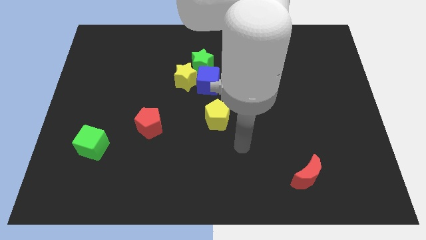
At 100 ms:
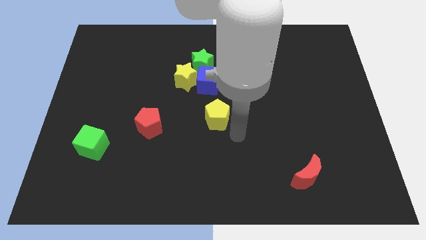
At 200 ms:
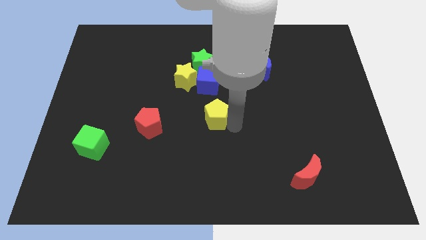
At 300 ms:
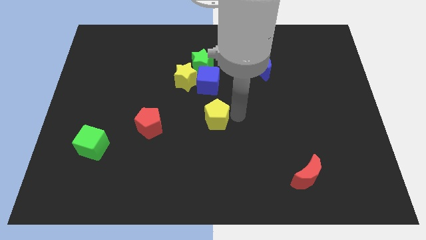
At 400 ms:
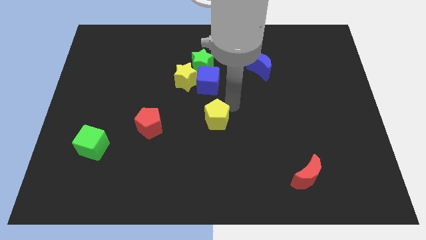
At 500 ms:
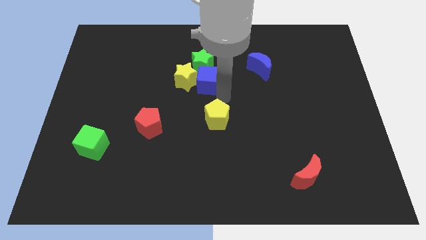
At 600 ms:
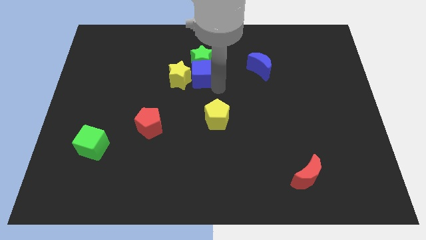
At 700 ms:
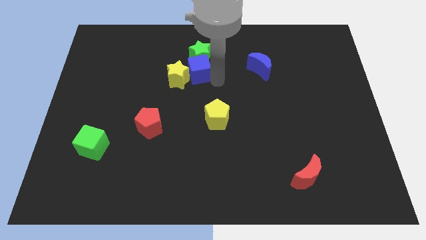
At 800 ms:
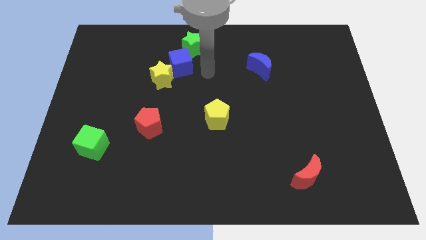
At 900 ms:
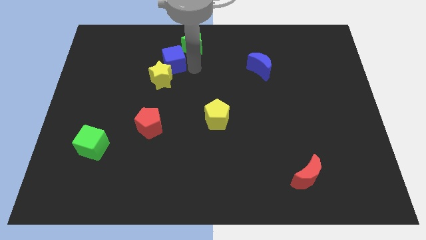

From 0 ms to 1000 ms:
separate the yellow star from the blue cube and green star

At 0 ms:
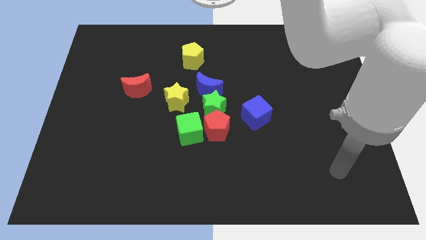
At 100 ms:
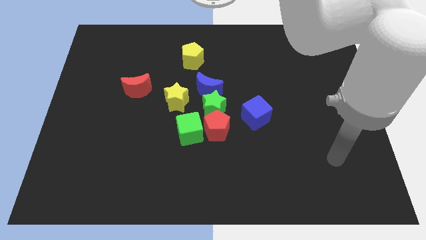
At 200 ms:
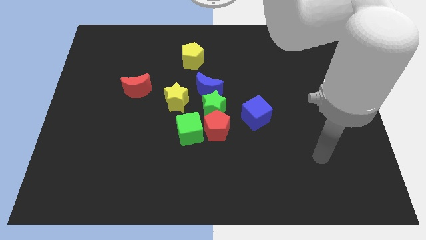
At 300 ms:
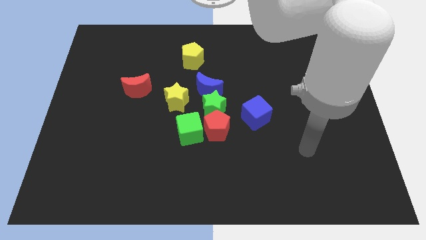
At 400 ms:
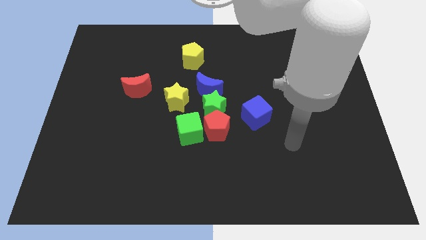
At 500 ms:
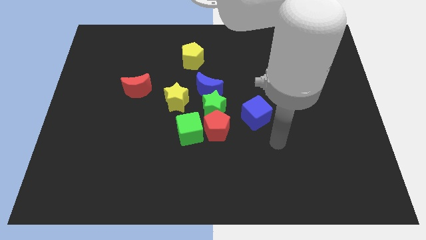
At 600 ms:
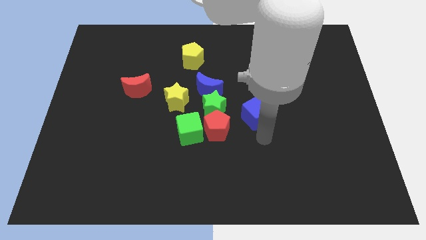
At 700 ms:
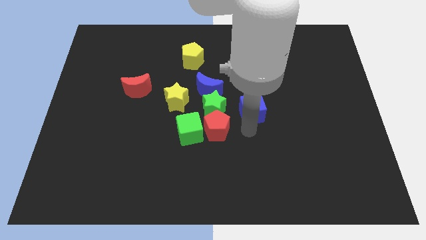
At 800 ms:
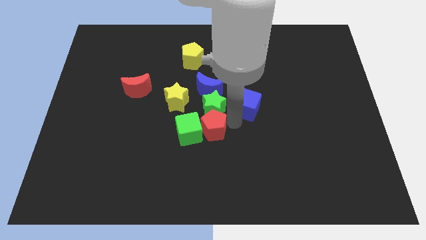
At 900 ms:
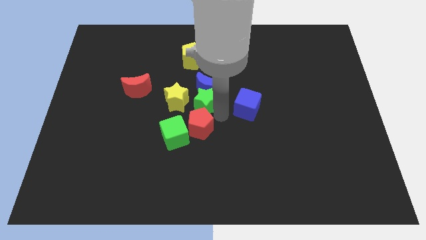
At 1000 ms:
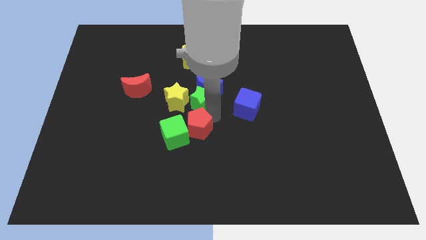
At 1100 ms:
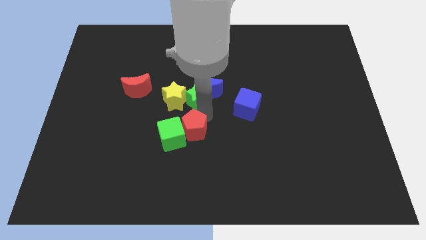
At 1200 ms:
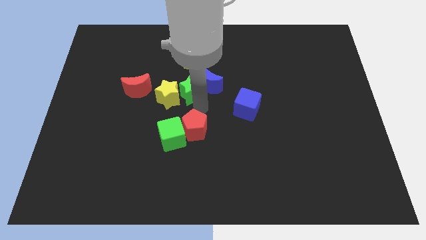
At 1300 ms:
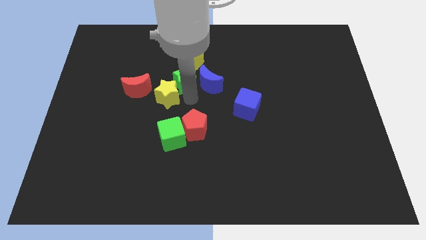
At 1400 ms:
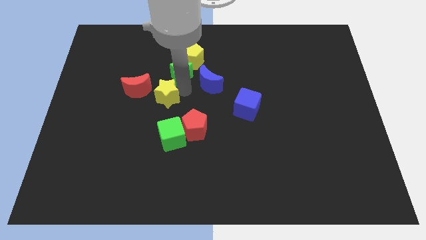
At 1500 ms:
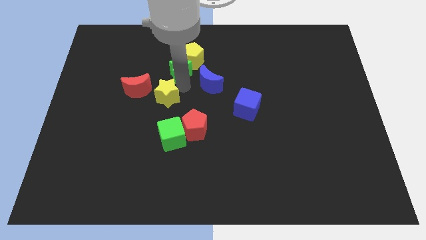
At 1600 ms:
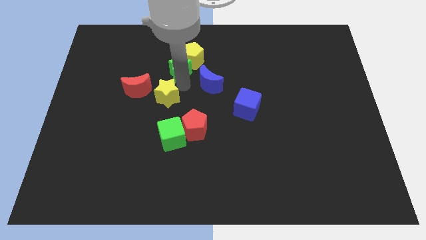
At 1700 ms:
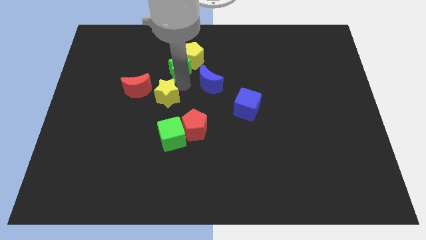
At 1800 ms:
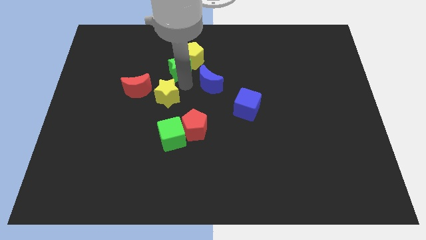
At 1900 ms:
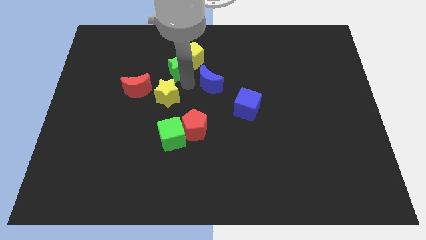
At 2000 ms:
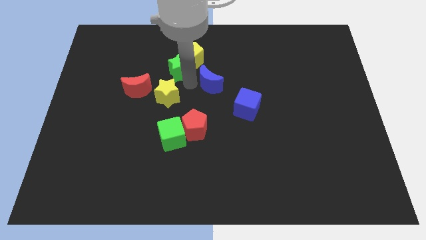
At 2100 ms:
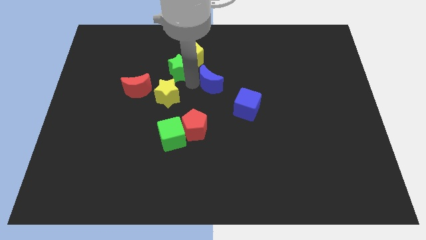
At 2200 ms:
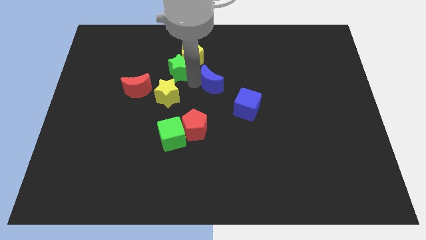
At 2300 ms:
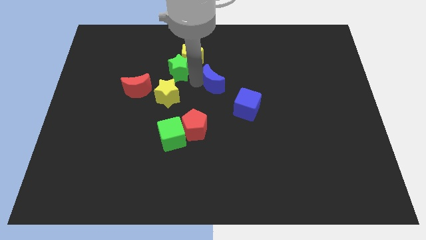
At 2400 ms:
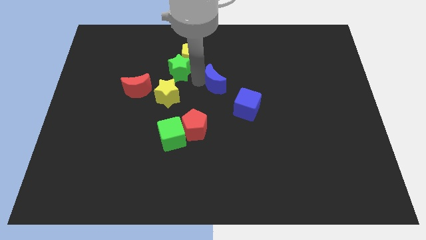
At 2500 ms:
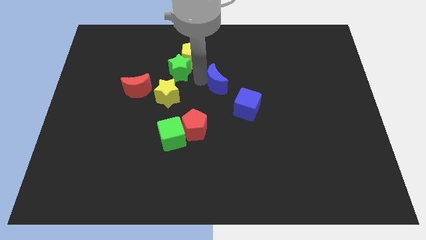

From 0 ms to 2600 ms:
pull the blue moon apart from the green star and yellow star

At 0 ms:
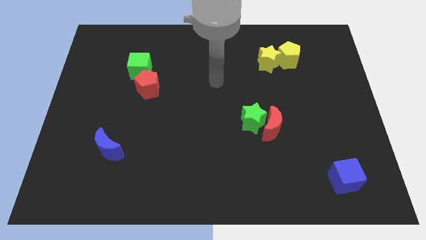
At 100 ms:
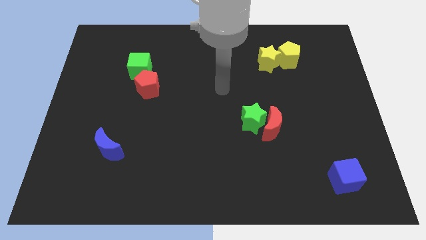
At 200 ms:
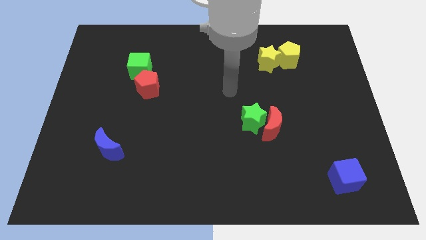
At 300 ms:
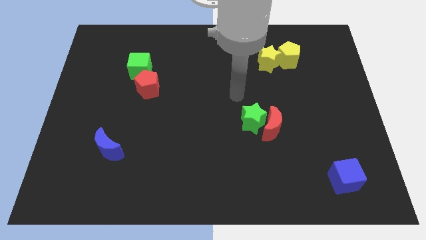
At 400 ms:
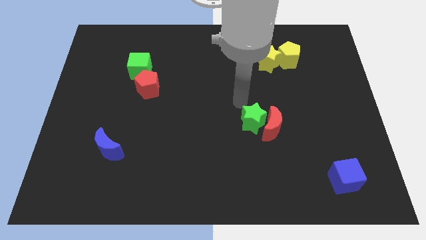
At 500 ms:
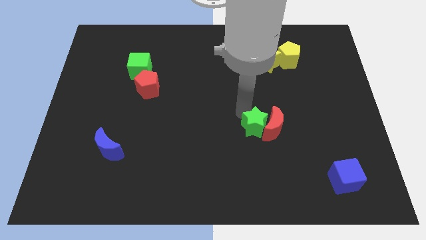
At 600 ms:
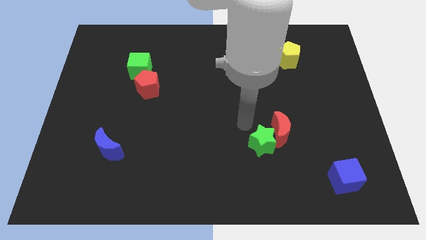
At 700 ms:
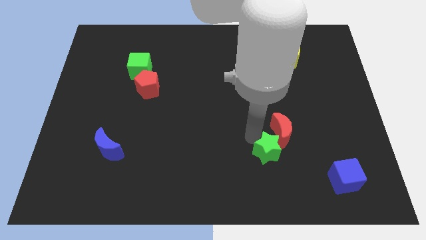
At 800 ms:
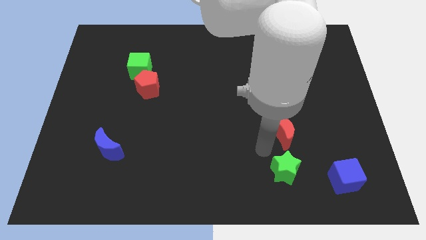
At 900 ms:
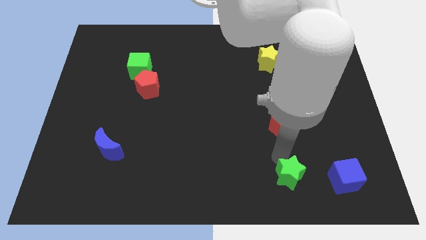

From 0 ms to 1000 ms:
move the red moon away from the green star

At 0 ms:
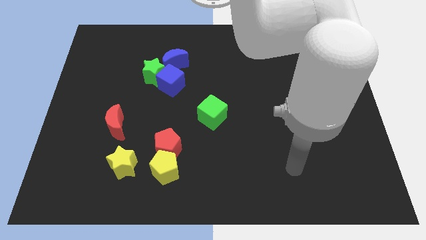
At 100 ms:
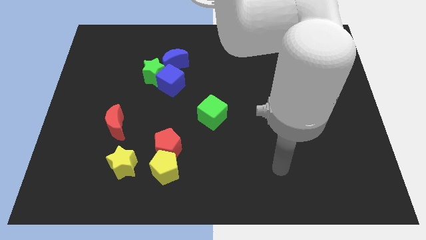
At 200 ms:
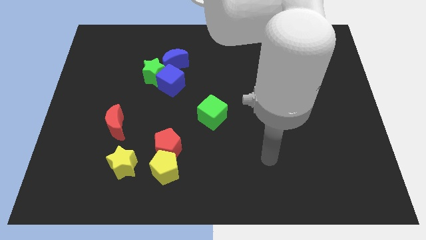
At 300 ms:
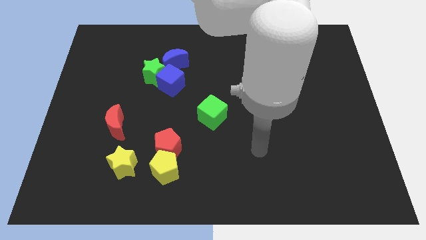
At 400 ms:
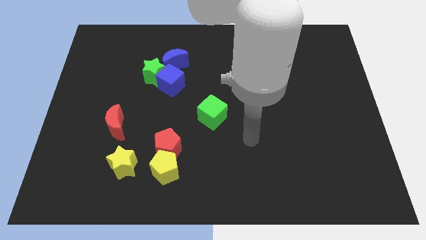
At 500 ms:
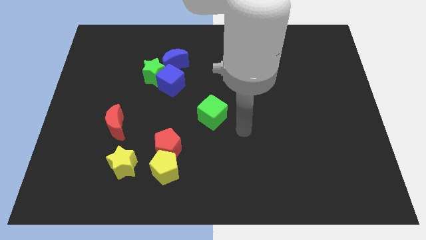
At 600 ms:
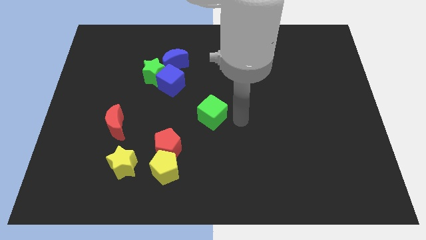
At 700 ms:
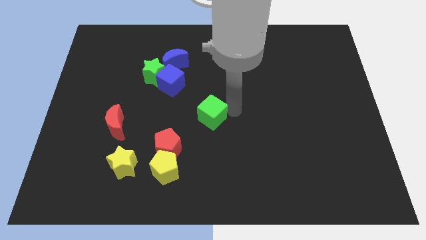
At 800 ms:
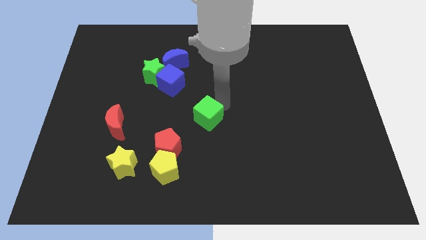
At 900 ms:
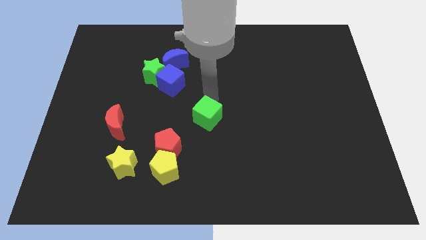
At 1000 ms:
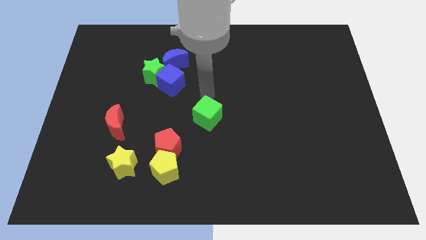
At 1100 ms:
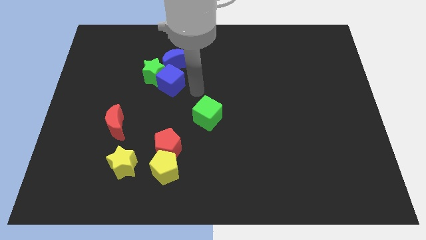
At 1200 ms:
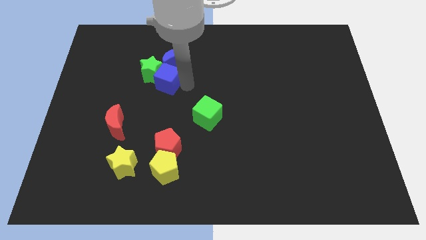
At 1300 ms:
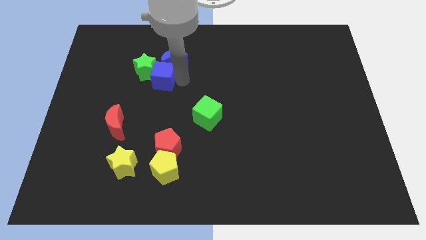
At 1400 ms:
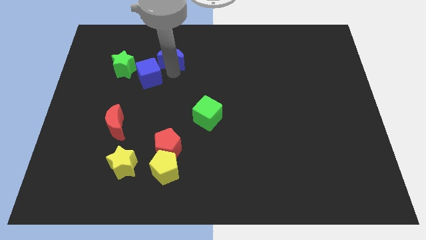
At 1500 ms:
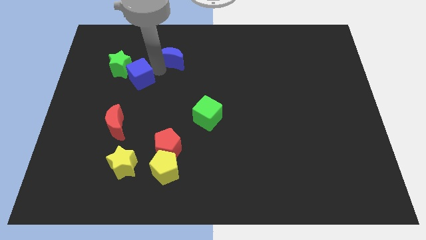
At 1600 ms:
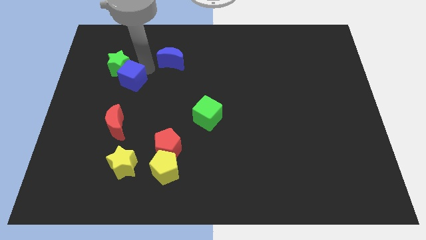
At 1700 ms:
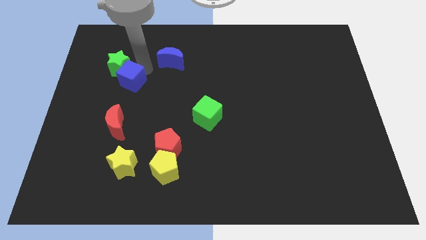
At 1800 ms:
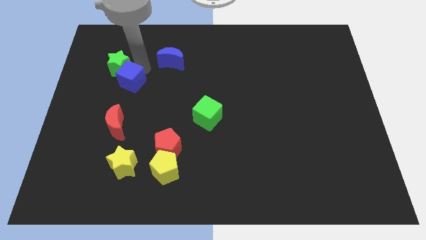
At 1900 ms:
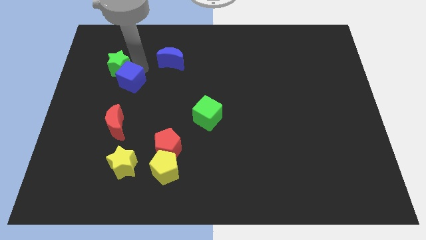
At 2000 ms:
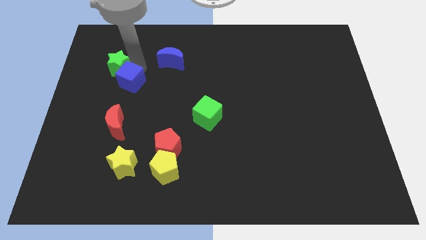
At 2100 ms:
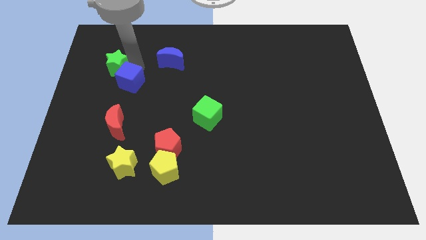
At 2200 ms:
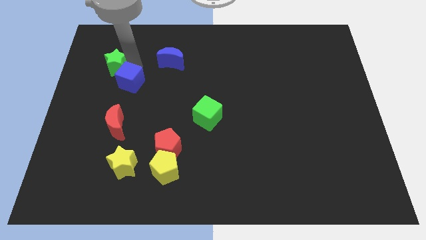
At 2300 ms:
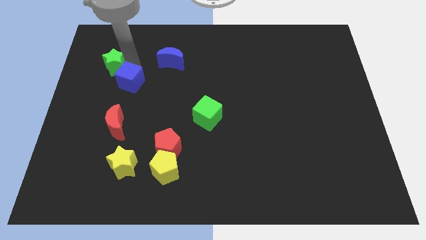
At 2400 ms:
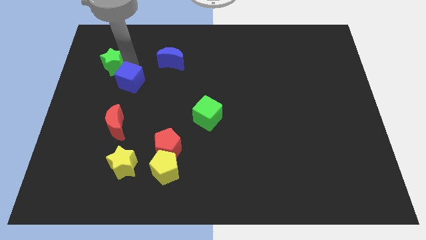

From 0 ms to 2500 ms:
move the green star away from the blue cube and blue moon

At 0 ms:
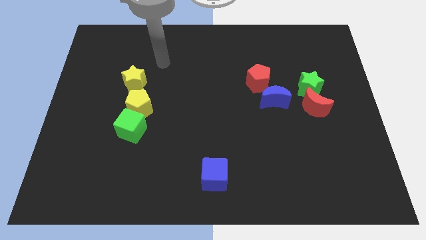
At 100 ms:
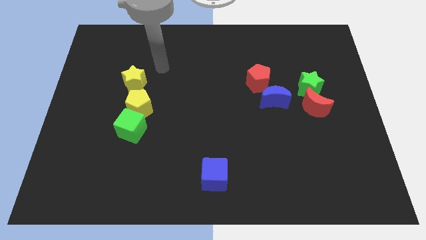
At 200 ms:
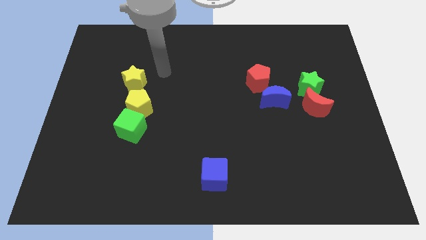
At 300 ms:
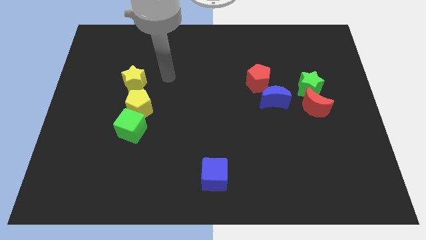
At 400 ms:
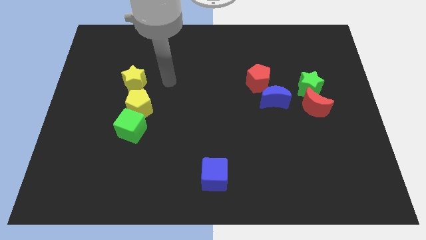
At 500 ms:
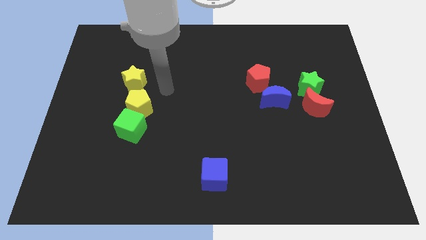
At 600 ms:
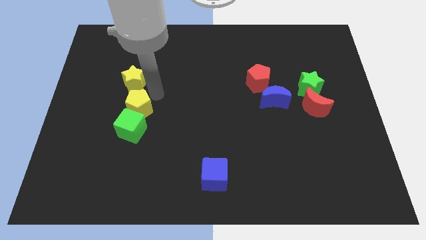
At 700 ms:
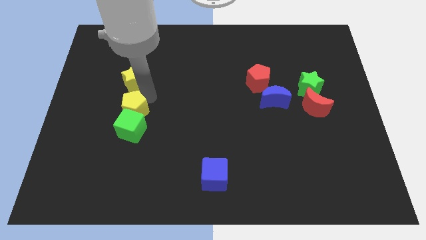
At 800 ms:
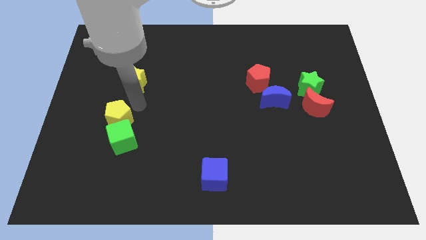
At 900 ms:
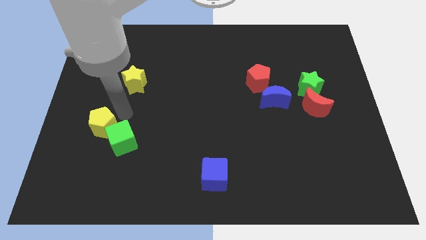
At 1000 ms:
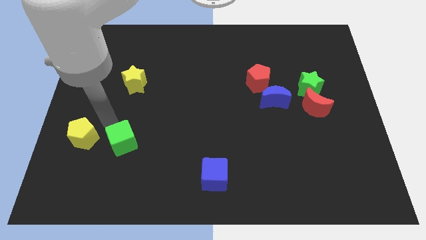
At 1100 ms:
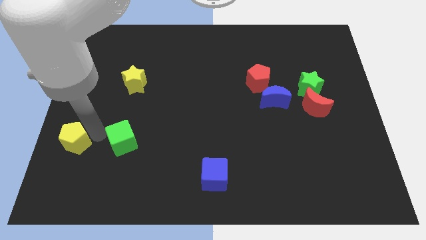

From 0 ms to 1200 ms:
pull the green cube apart from the yellow pentagon

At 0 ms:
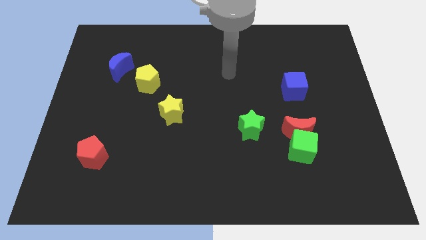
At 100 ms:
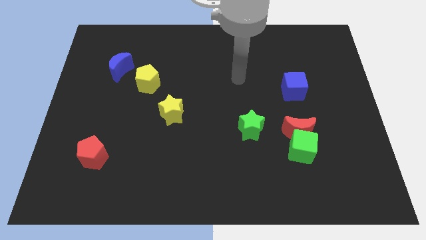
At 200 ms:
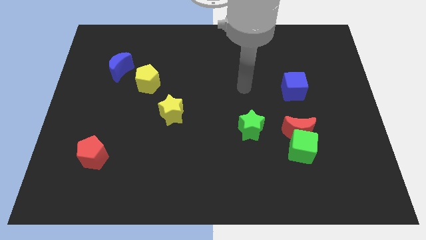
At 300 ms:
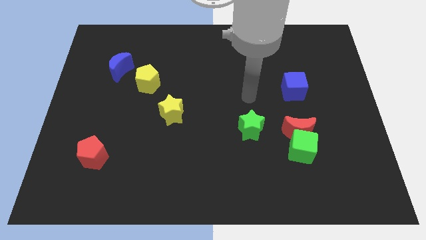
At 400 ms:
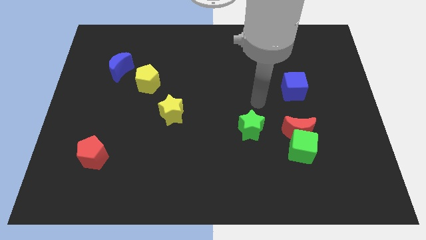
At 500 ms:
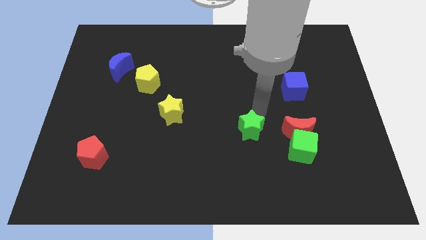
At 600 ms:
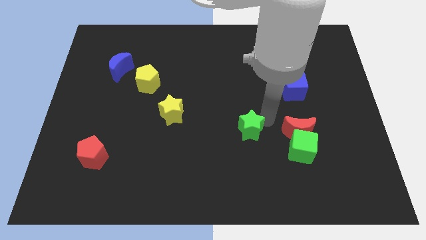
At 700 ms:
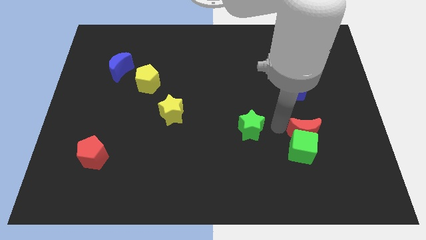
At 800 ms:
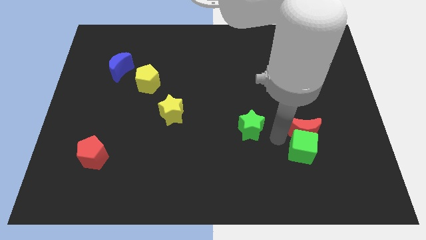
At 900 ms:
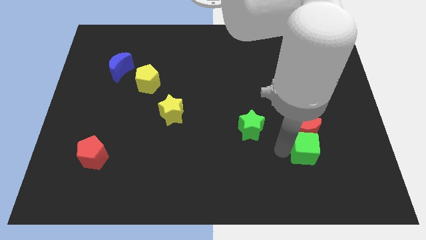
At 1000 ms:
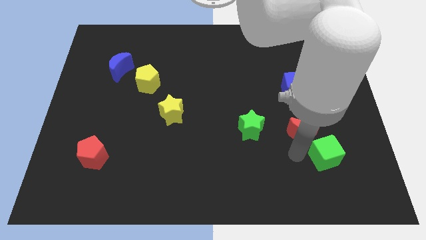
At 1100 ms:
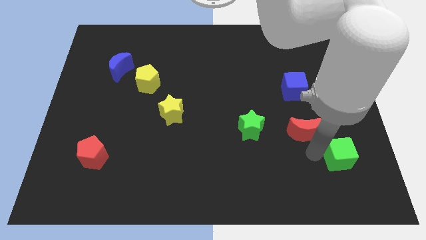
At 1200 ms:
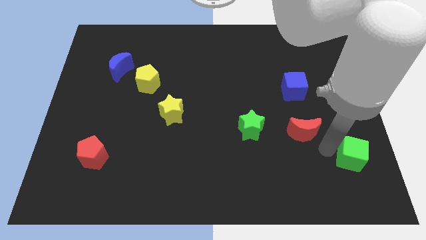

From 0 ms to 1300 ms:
separate the red moon from the green cube
